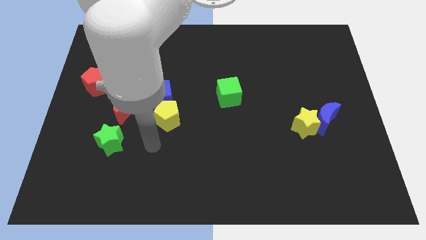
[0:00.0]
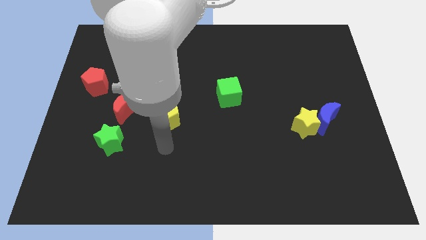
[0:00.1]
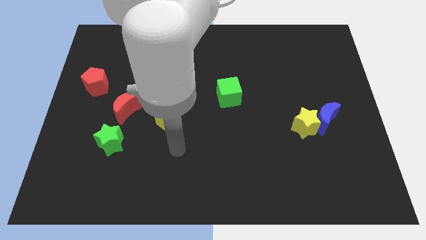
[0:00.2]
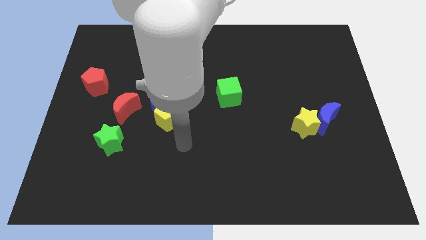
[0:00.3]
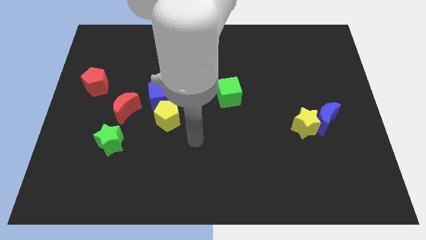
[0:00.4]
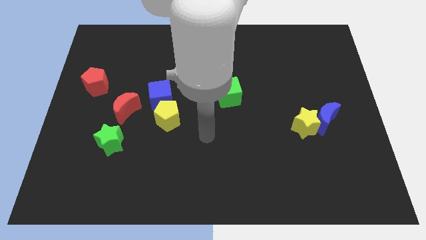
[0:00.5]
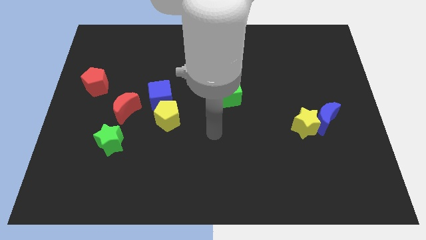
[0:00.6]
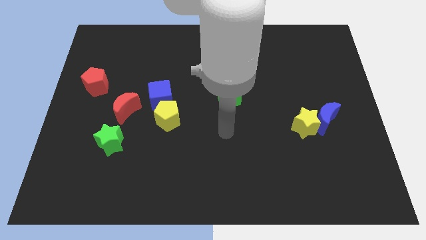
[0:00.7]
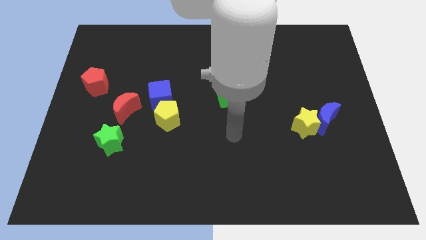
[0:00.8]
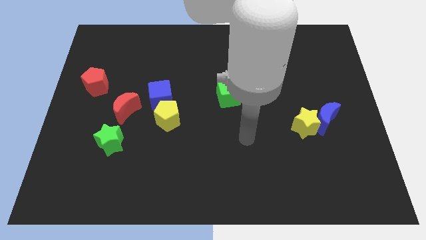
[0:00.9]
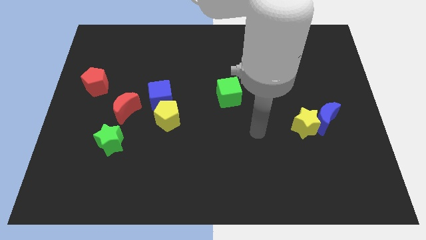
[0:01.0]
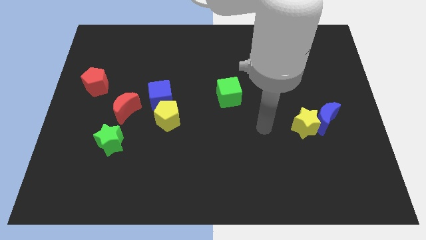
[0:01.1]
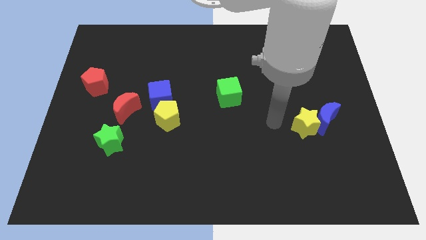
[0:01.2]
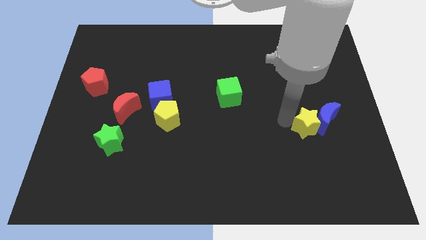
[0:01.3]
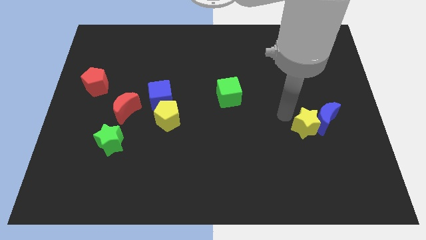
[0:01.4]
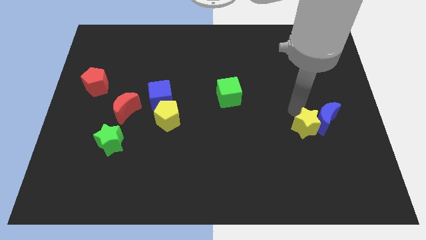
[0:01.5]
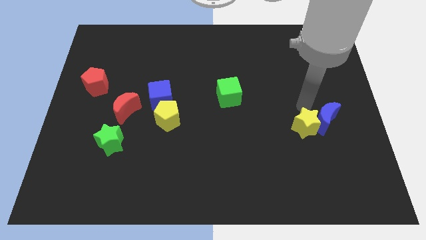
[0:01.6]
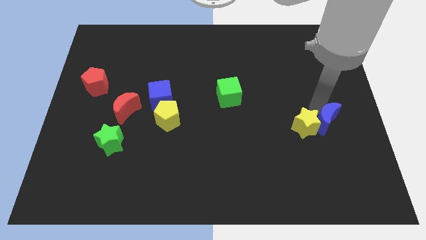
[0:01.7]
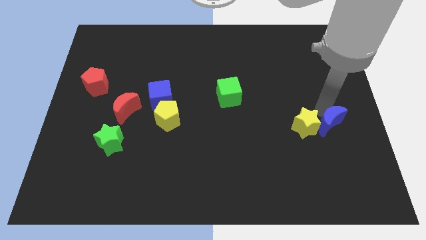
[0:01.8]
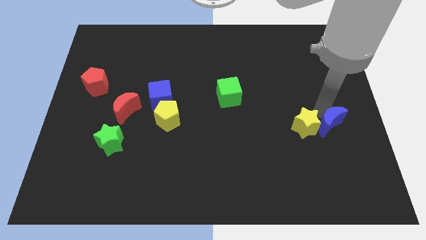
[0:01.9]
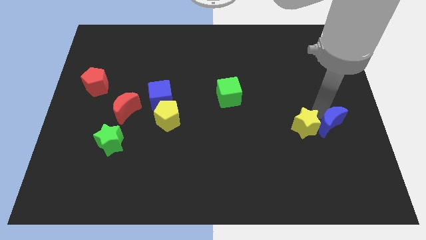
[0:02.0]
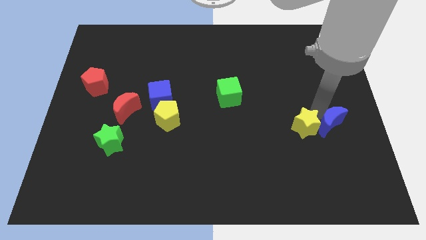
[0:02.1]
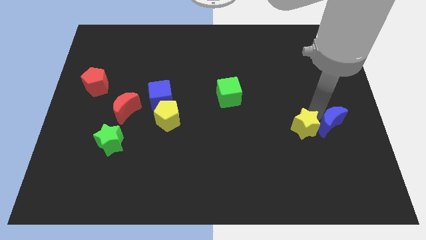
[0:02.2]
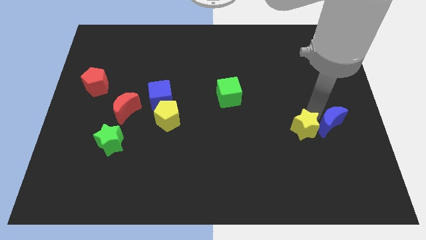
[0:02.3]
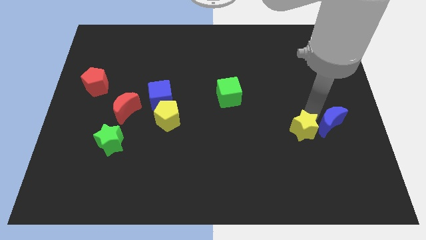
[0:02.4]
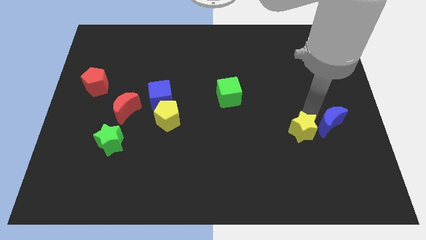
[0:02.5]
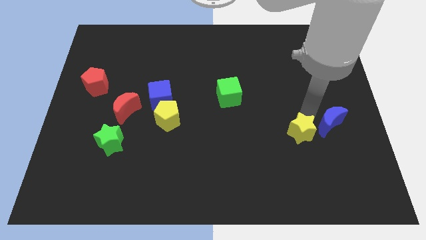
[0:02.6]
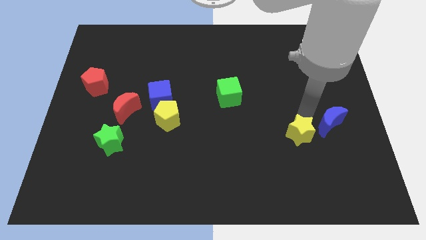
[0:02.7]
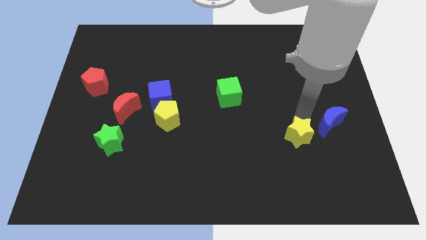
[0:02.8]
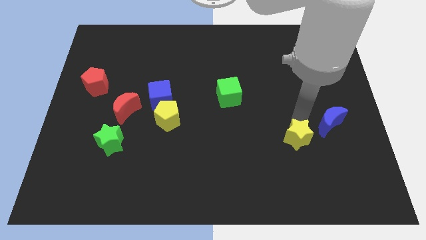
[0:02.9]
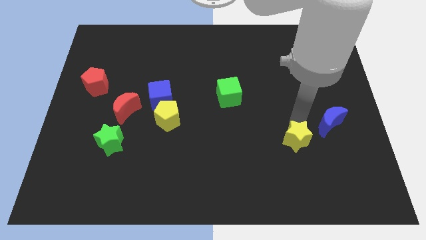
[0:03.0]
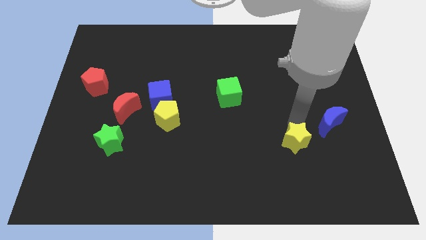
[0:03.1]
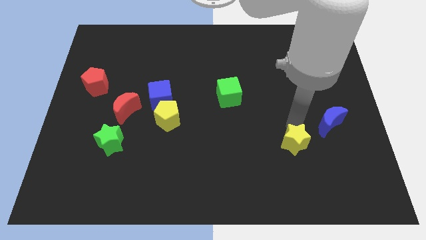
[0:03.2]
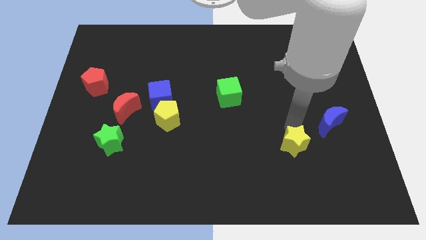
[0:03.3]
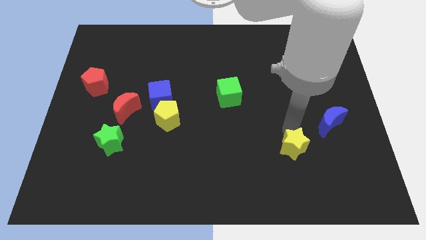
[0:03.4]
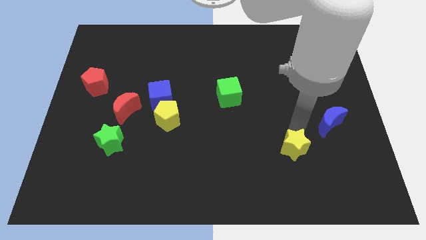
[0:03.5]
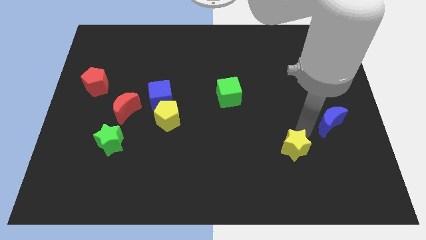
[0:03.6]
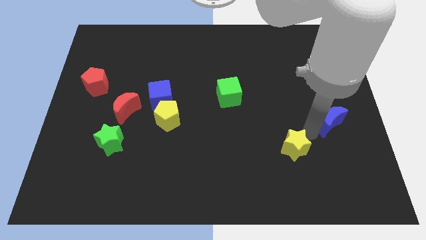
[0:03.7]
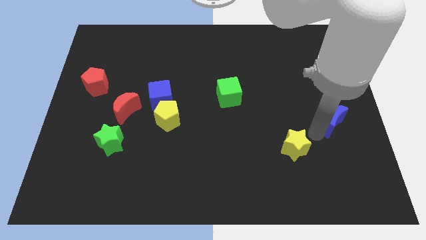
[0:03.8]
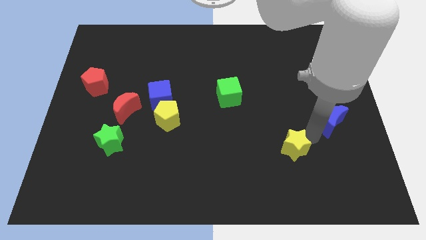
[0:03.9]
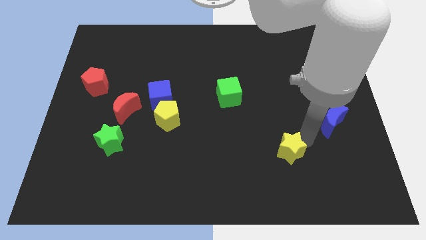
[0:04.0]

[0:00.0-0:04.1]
push the yellow star a bit diagonally downwards and to the left

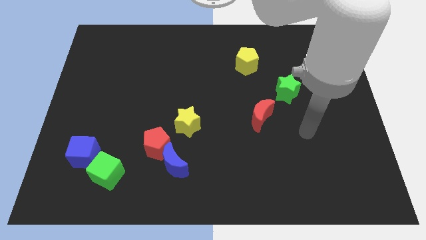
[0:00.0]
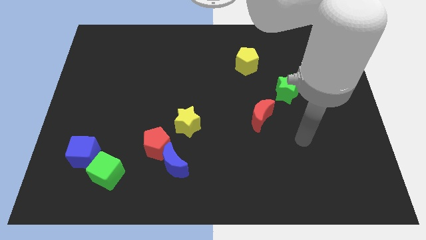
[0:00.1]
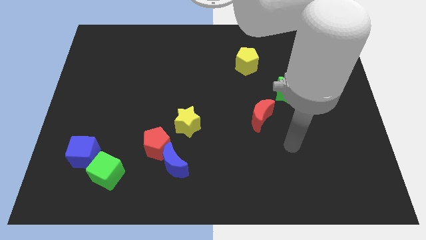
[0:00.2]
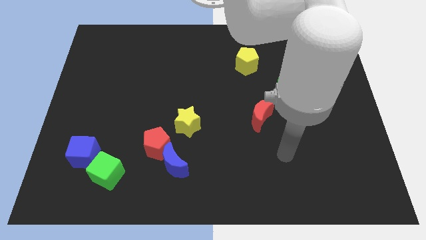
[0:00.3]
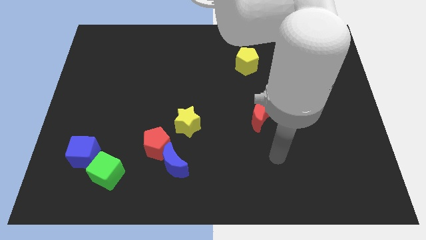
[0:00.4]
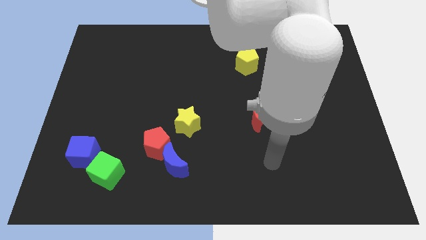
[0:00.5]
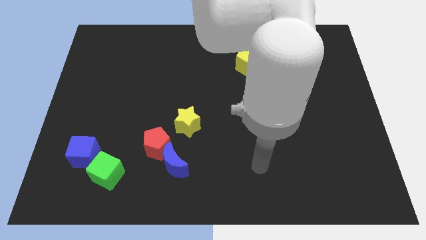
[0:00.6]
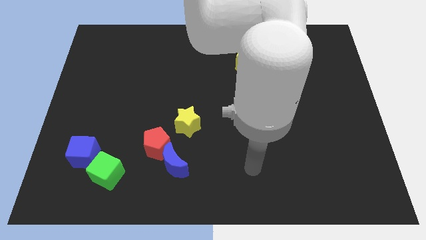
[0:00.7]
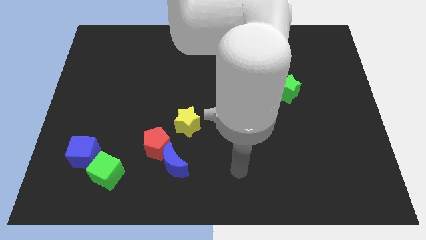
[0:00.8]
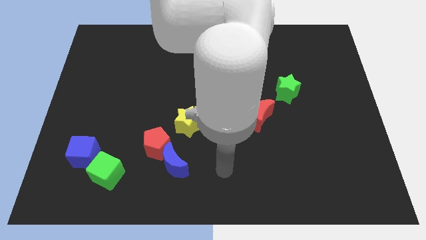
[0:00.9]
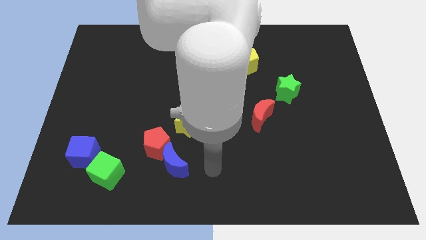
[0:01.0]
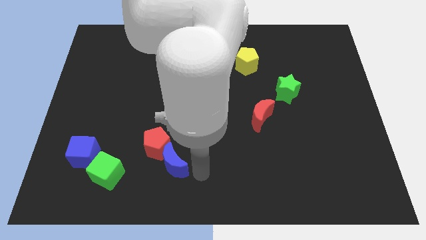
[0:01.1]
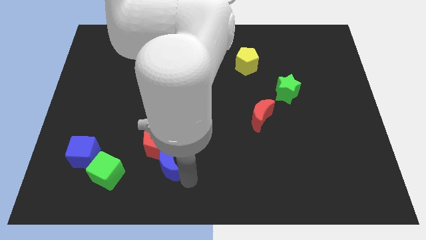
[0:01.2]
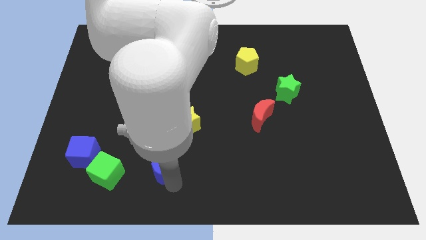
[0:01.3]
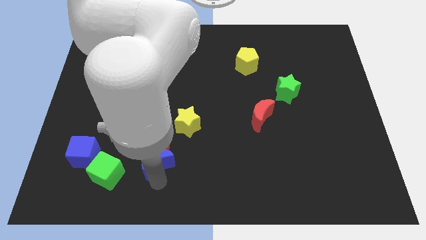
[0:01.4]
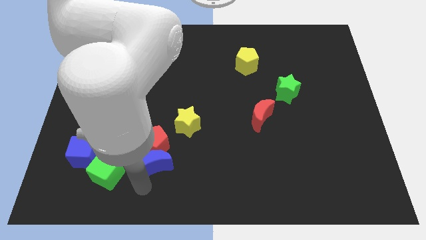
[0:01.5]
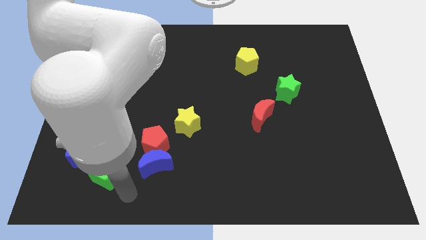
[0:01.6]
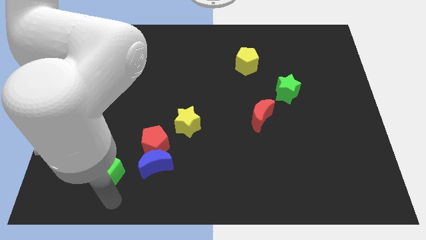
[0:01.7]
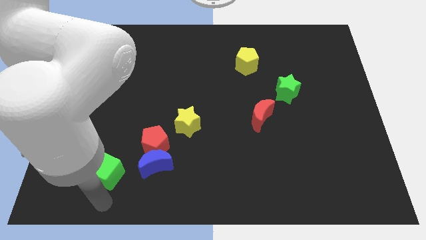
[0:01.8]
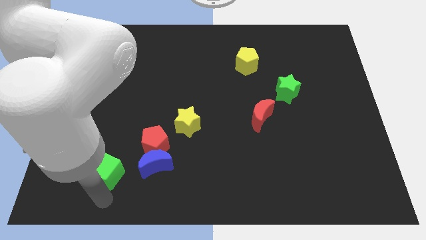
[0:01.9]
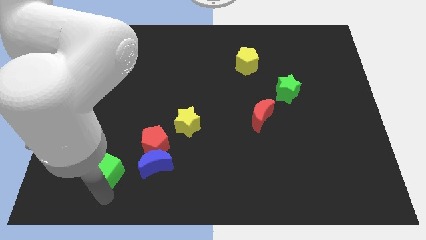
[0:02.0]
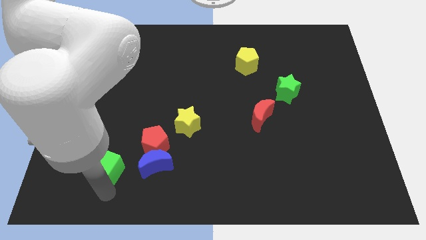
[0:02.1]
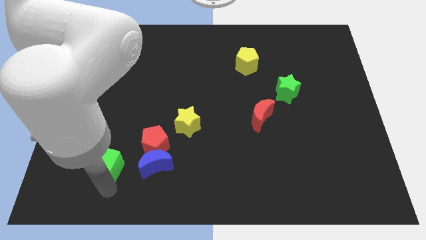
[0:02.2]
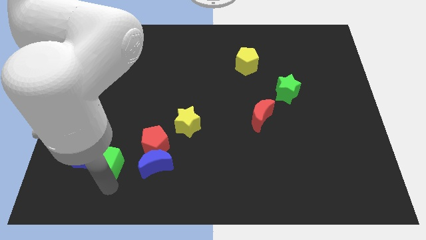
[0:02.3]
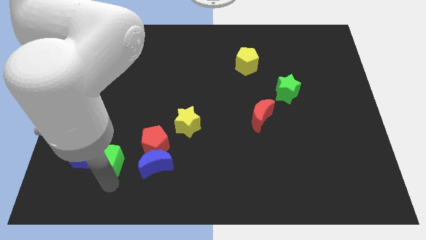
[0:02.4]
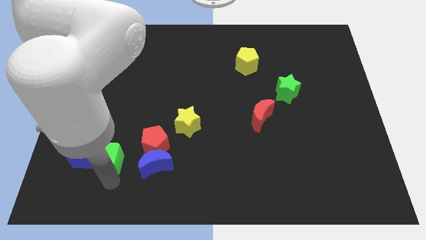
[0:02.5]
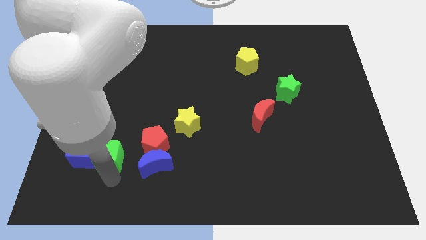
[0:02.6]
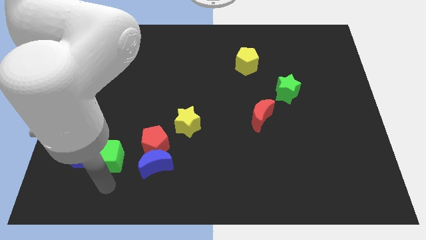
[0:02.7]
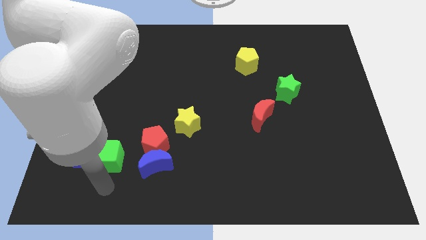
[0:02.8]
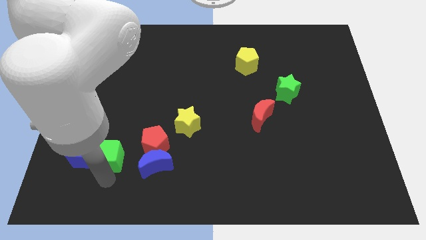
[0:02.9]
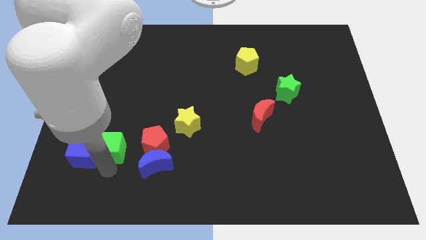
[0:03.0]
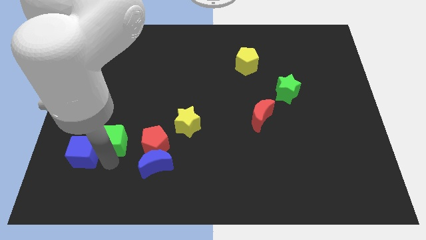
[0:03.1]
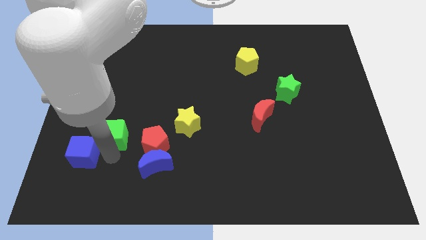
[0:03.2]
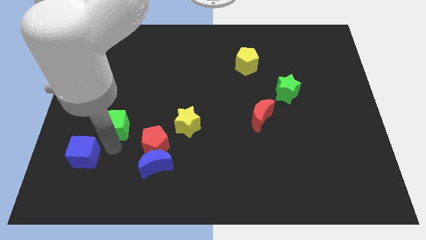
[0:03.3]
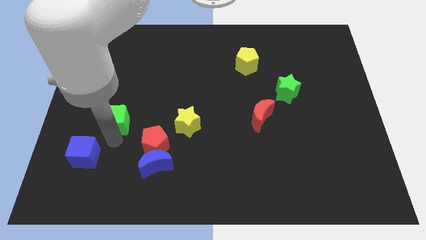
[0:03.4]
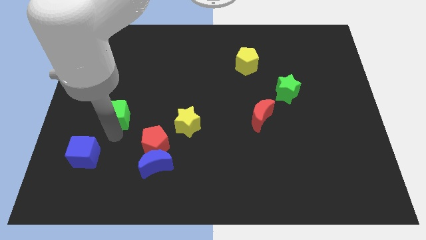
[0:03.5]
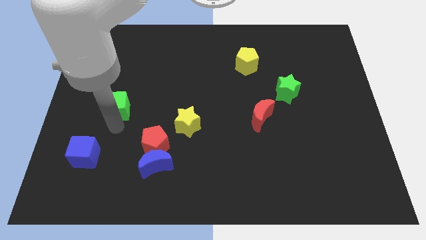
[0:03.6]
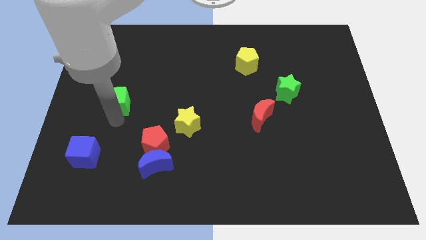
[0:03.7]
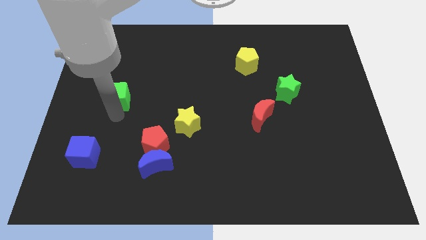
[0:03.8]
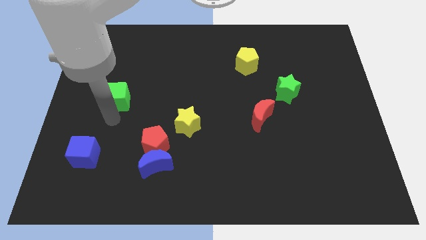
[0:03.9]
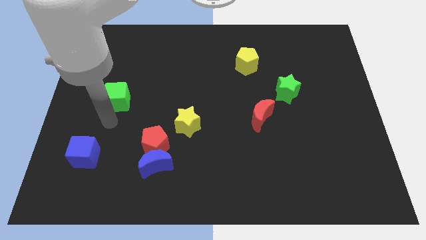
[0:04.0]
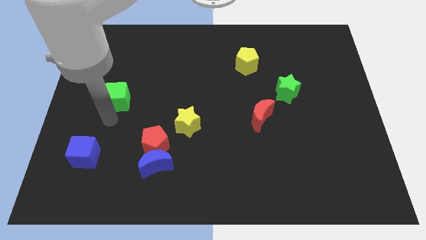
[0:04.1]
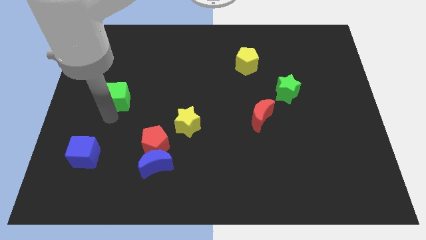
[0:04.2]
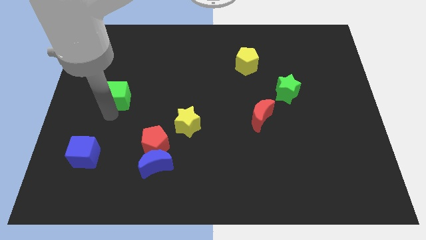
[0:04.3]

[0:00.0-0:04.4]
move the green cube up
